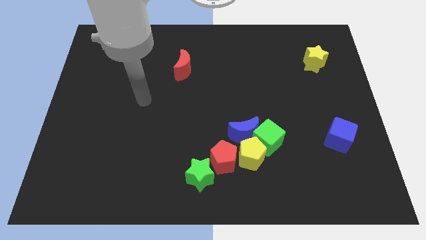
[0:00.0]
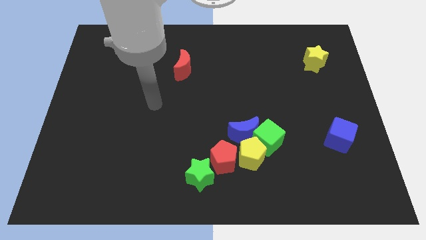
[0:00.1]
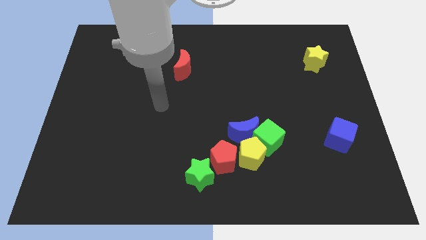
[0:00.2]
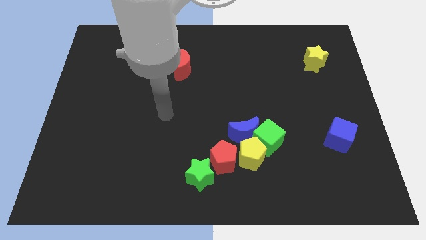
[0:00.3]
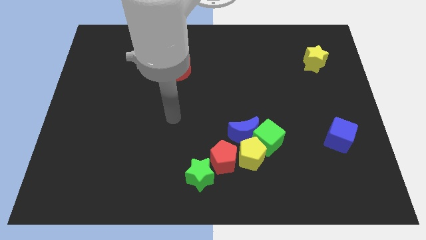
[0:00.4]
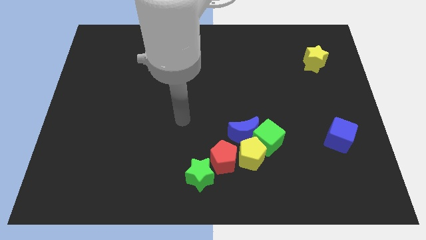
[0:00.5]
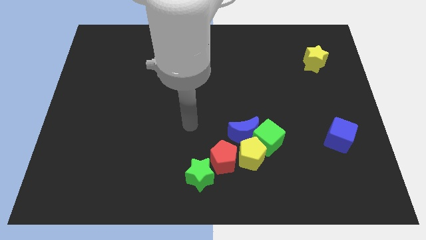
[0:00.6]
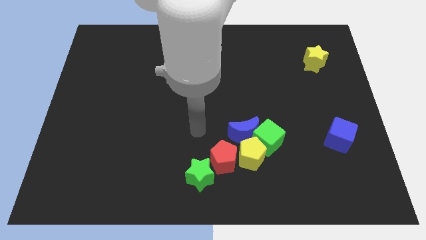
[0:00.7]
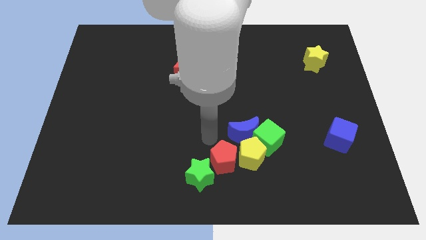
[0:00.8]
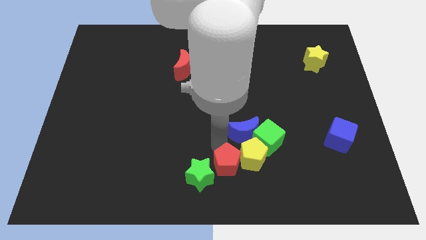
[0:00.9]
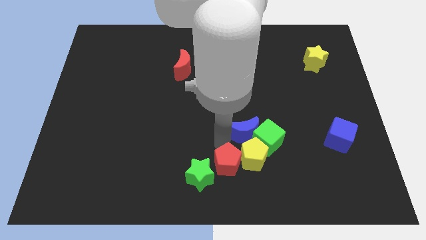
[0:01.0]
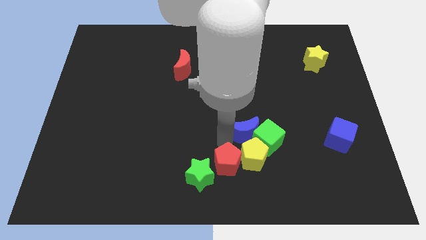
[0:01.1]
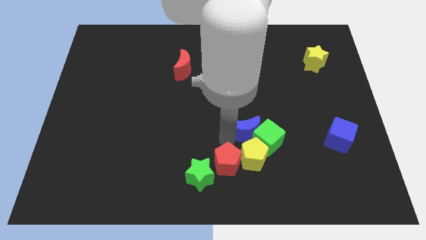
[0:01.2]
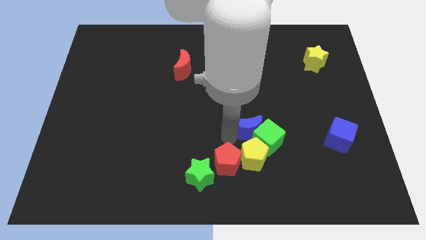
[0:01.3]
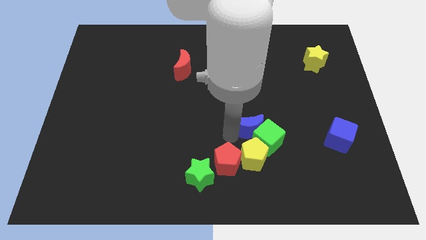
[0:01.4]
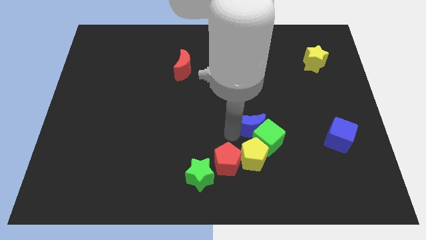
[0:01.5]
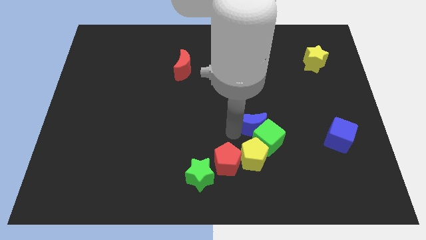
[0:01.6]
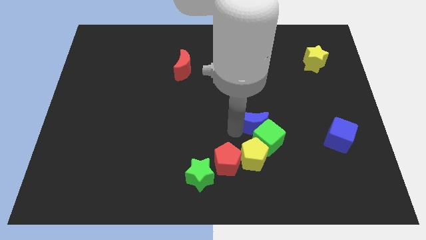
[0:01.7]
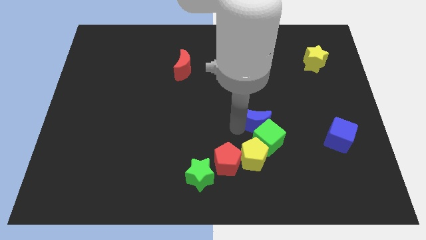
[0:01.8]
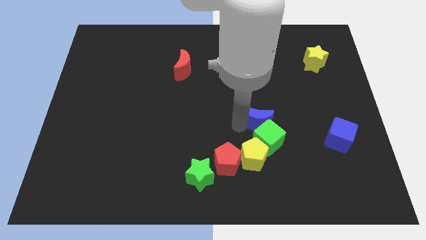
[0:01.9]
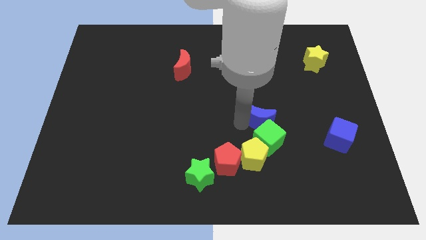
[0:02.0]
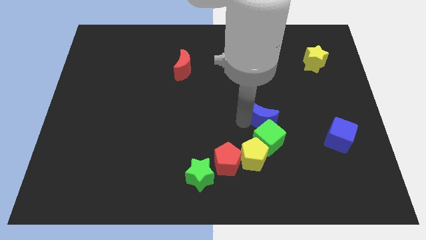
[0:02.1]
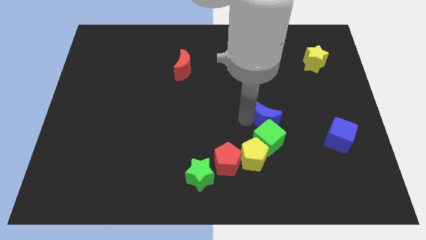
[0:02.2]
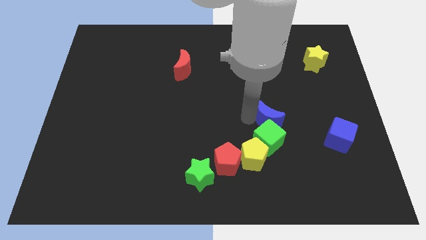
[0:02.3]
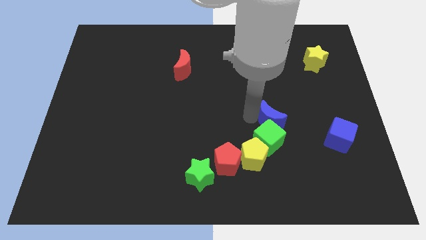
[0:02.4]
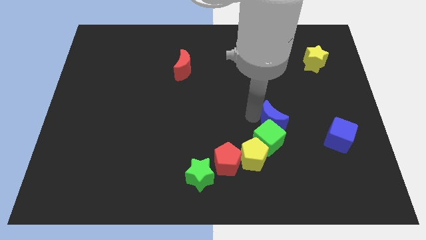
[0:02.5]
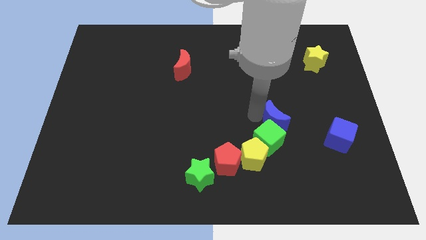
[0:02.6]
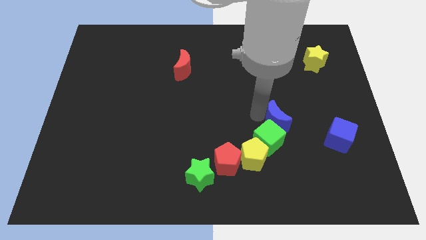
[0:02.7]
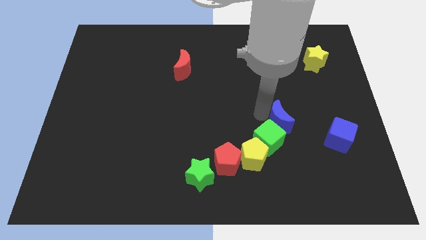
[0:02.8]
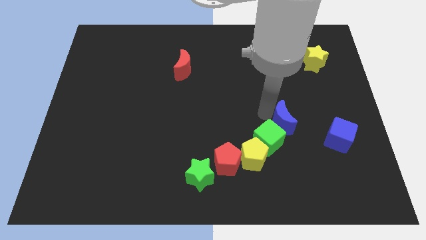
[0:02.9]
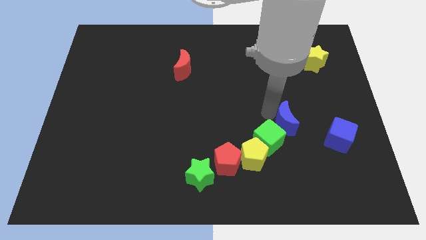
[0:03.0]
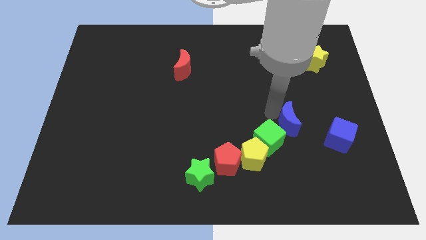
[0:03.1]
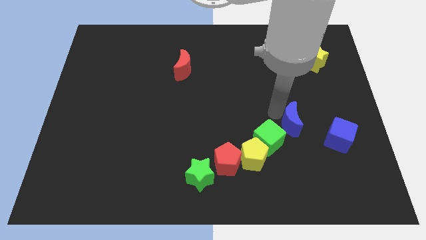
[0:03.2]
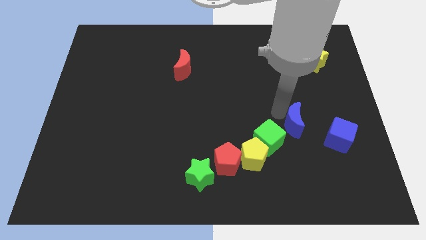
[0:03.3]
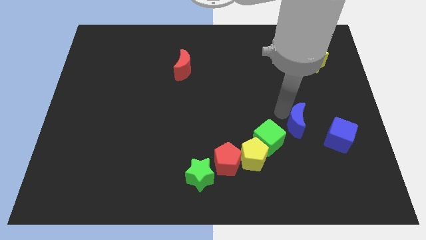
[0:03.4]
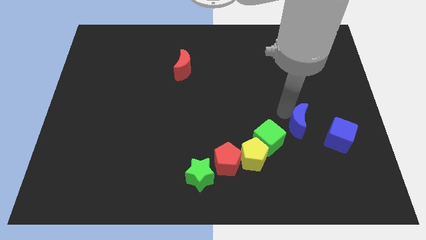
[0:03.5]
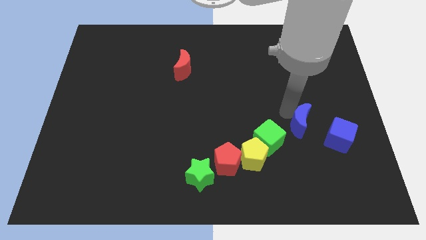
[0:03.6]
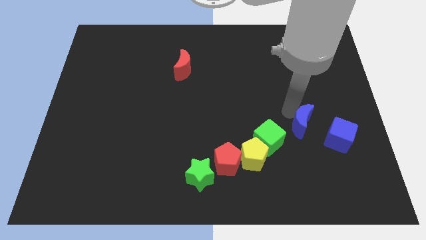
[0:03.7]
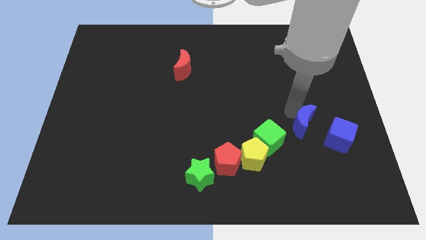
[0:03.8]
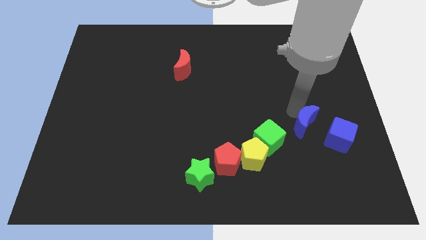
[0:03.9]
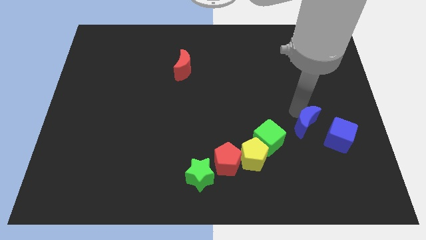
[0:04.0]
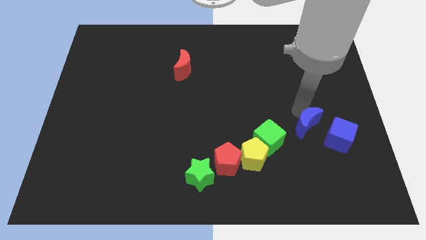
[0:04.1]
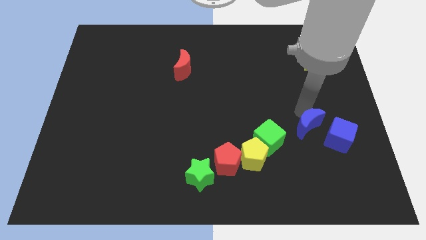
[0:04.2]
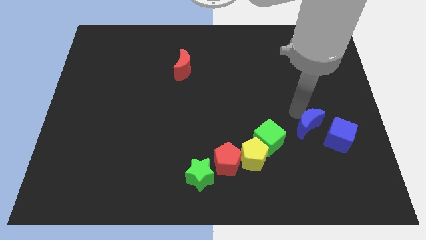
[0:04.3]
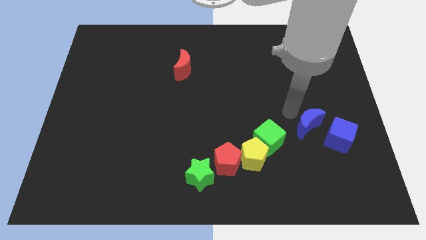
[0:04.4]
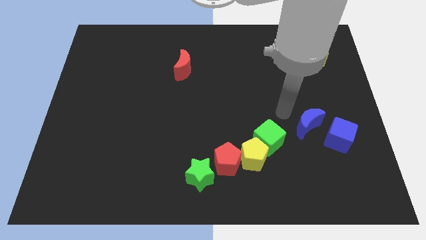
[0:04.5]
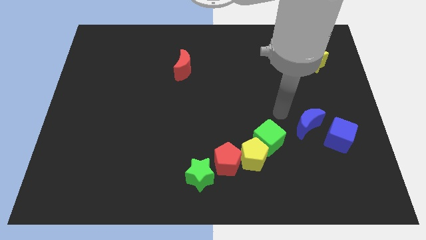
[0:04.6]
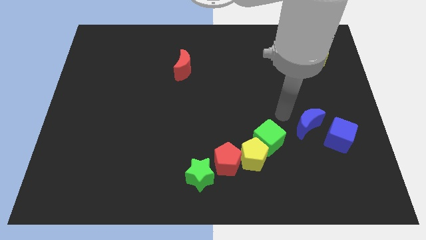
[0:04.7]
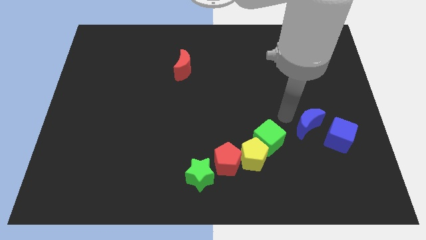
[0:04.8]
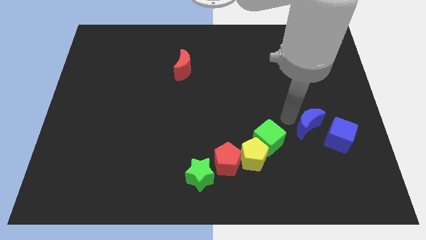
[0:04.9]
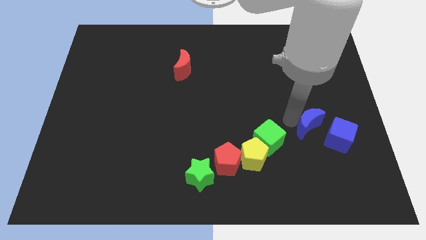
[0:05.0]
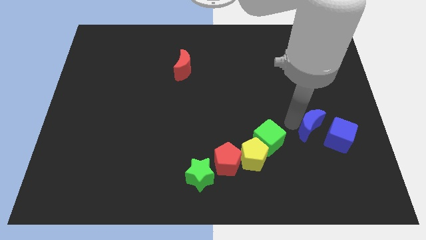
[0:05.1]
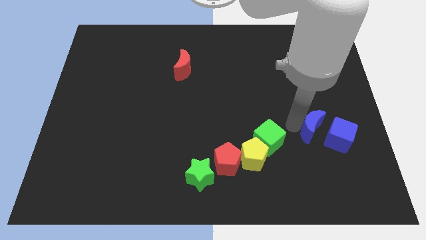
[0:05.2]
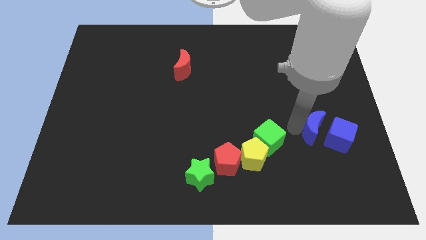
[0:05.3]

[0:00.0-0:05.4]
put the blue moon next to the blue cube
